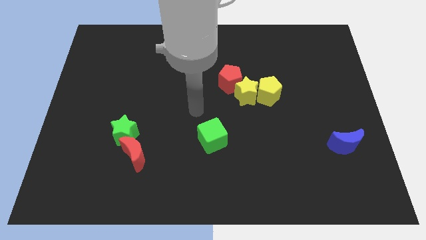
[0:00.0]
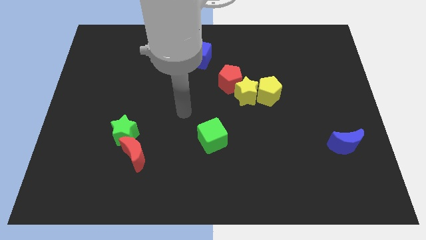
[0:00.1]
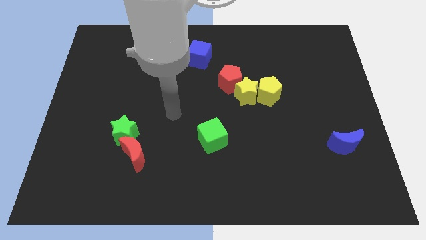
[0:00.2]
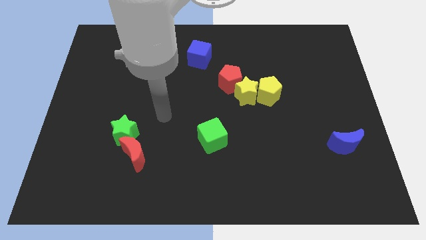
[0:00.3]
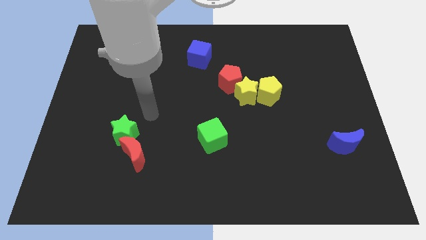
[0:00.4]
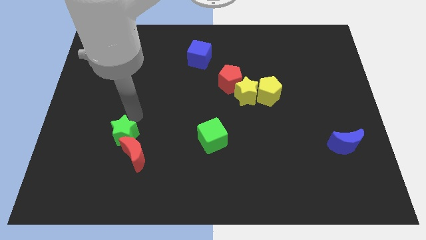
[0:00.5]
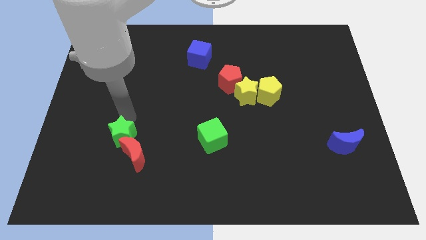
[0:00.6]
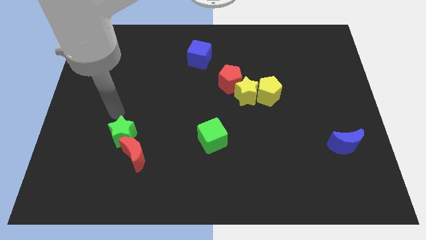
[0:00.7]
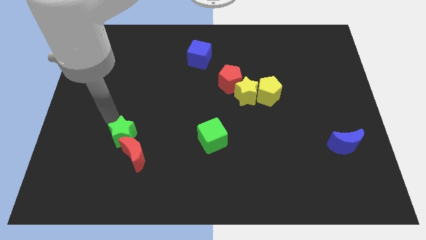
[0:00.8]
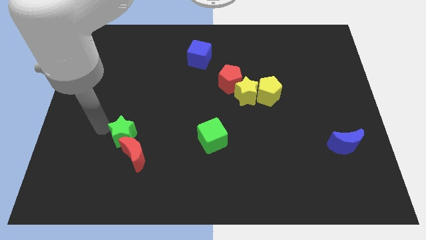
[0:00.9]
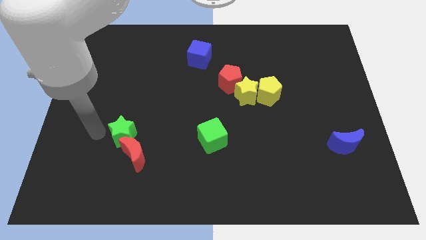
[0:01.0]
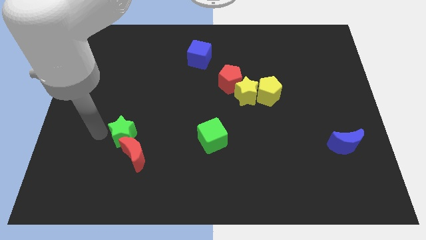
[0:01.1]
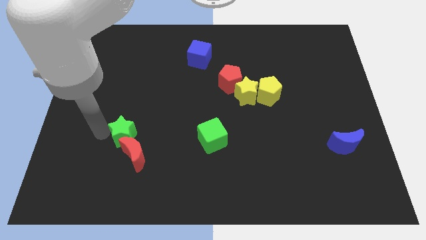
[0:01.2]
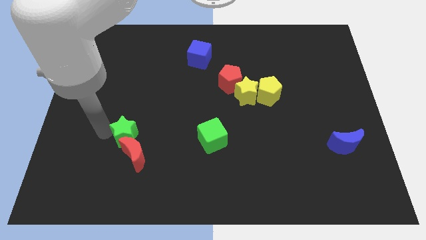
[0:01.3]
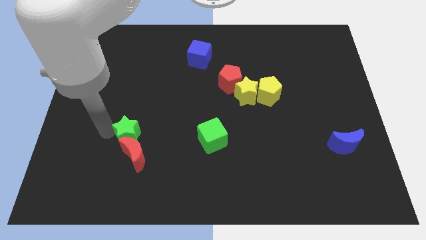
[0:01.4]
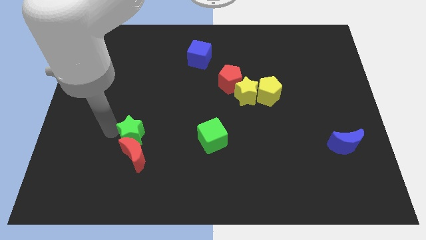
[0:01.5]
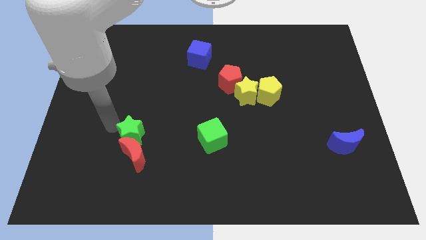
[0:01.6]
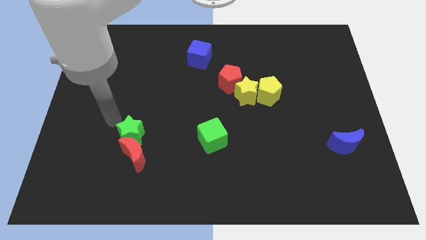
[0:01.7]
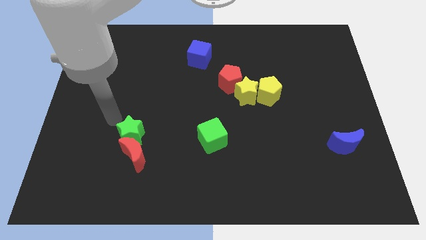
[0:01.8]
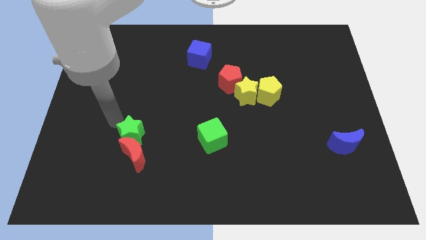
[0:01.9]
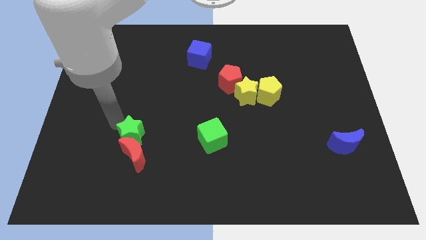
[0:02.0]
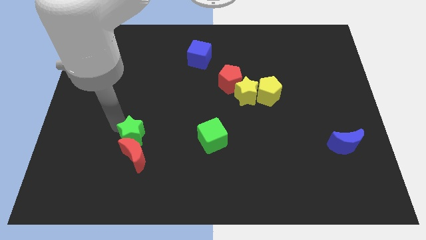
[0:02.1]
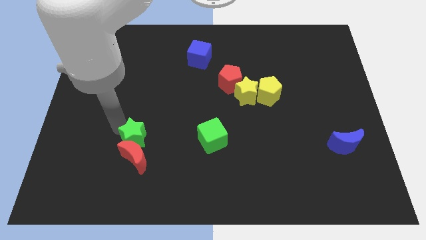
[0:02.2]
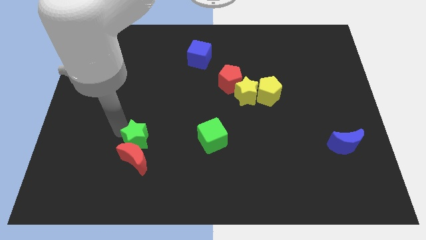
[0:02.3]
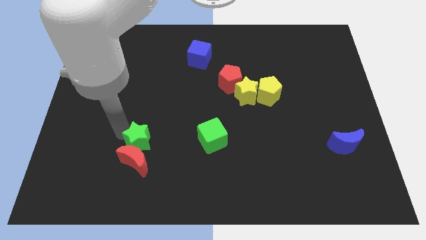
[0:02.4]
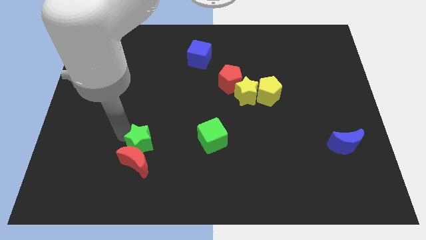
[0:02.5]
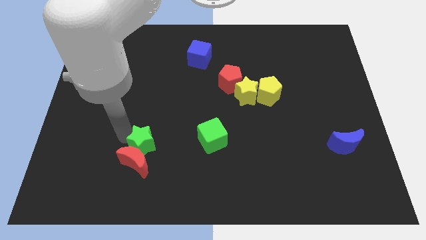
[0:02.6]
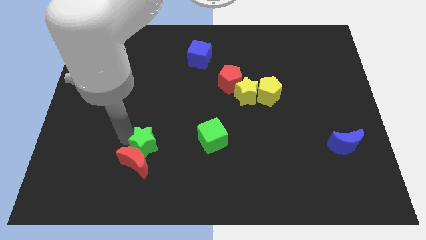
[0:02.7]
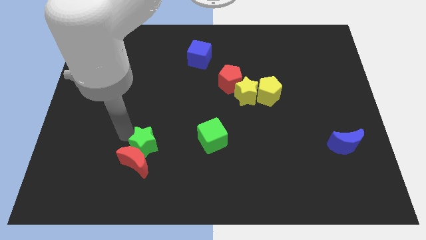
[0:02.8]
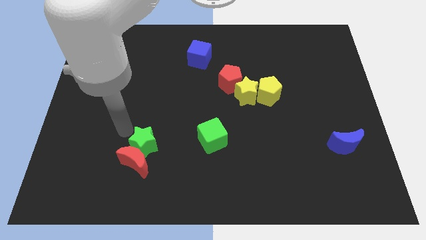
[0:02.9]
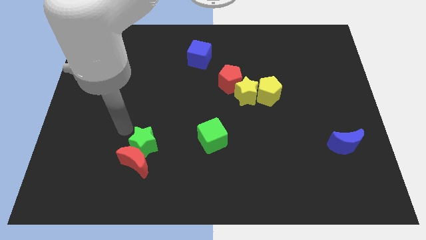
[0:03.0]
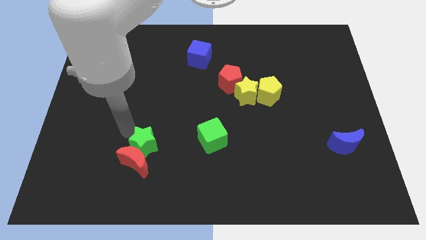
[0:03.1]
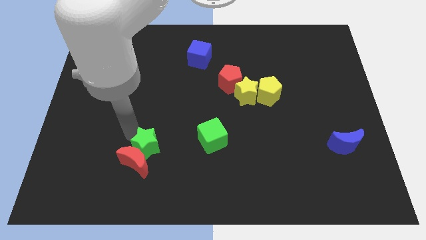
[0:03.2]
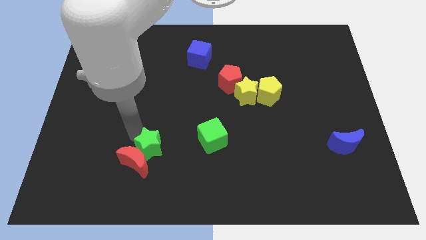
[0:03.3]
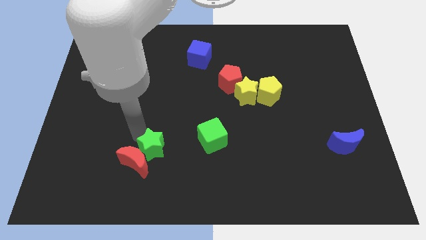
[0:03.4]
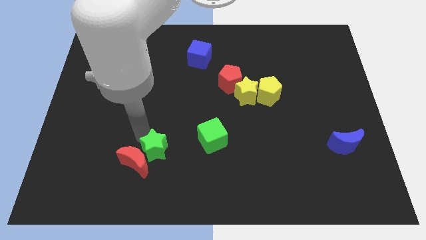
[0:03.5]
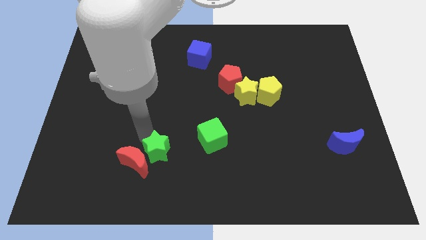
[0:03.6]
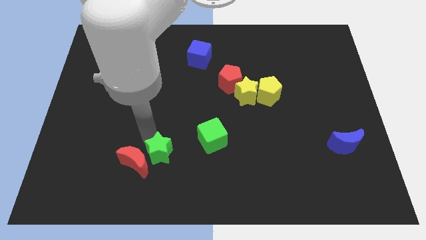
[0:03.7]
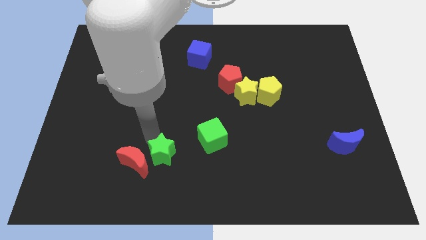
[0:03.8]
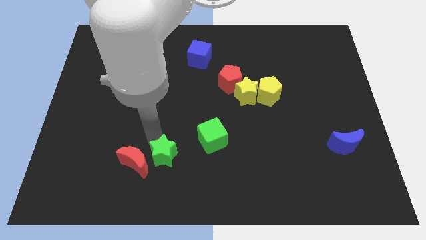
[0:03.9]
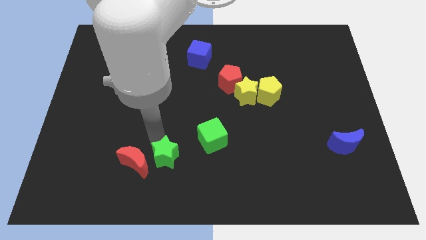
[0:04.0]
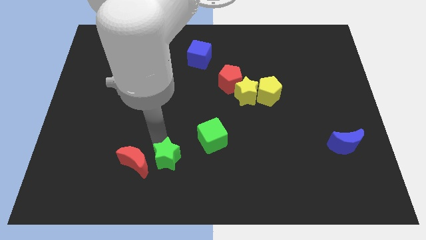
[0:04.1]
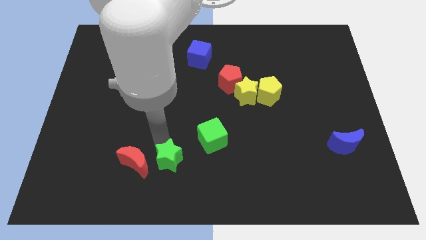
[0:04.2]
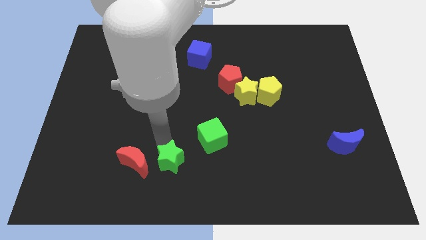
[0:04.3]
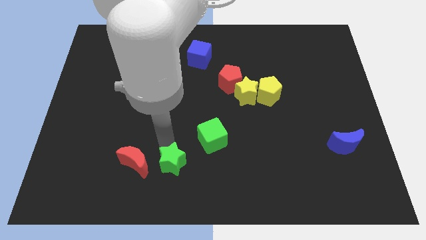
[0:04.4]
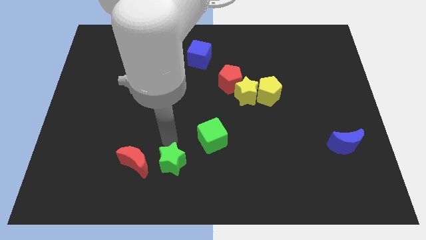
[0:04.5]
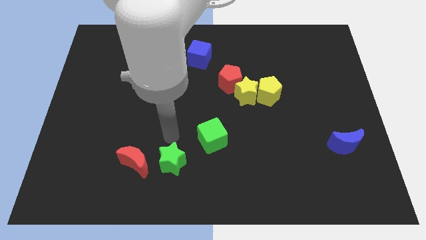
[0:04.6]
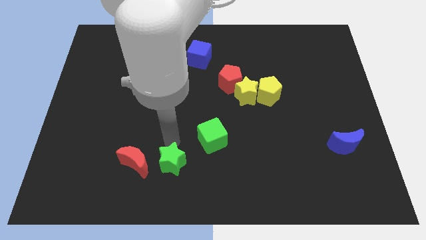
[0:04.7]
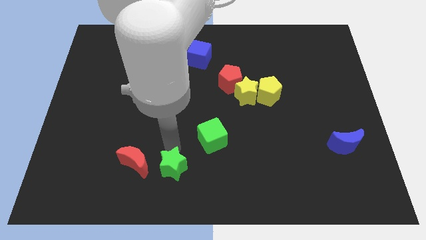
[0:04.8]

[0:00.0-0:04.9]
slide the green star to the bottom side

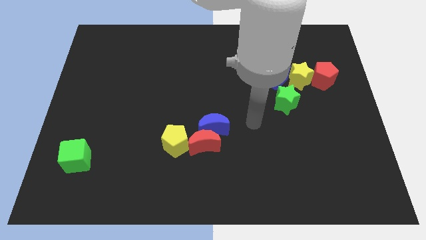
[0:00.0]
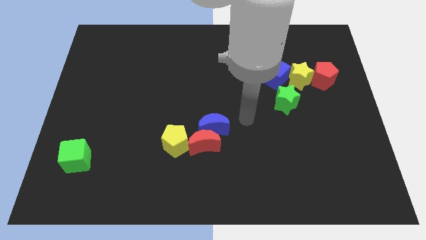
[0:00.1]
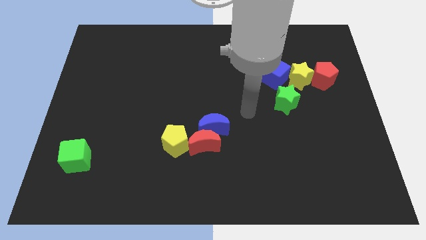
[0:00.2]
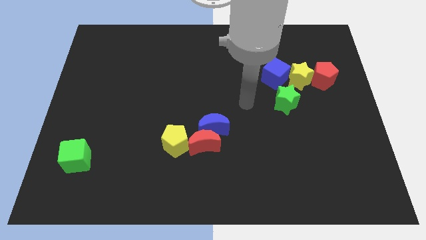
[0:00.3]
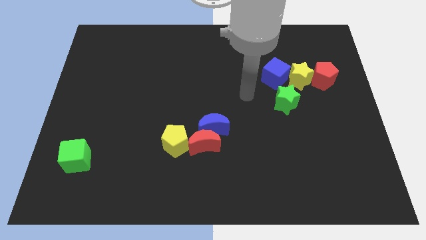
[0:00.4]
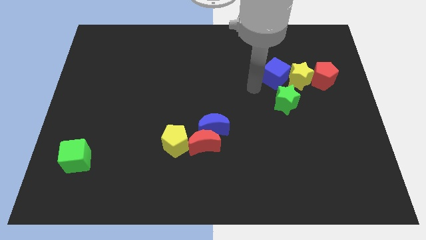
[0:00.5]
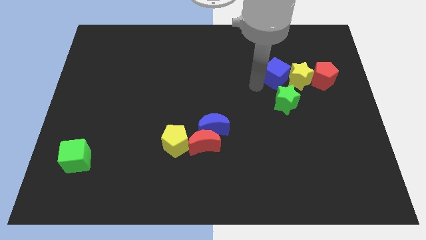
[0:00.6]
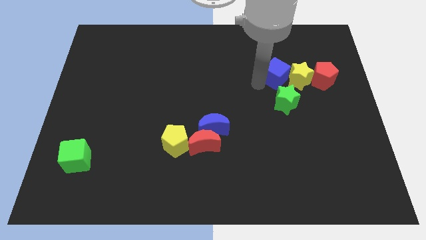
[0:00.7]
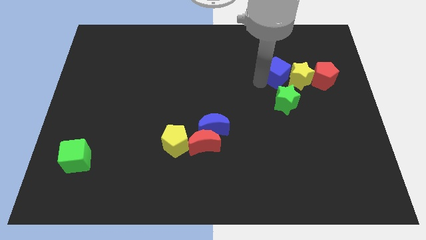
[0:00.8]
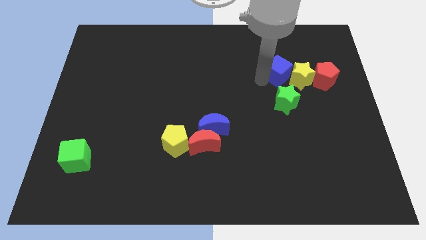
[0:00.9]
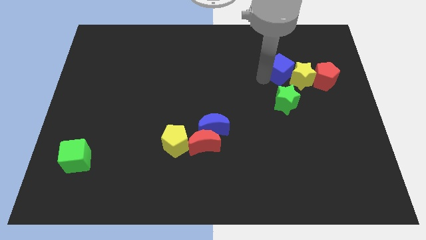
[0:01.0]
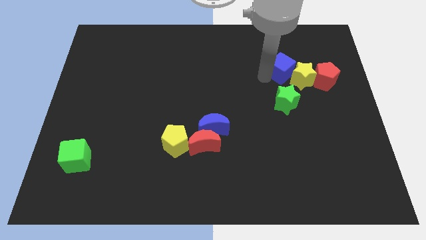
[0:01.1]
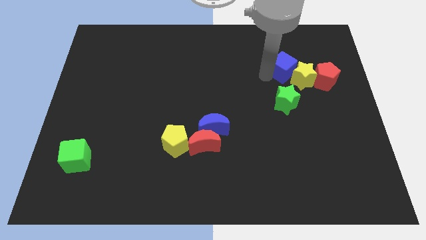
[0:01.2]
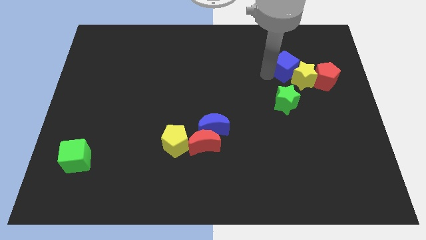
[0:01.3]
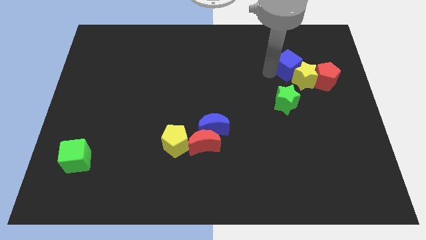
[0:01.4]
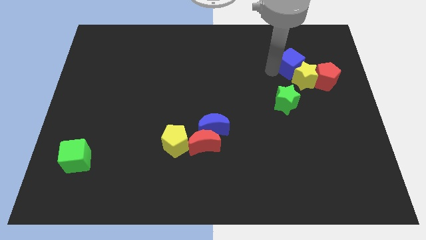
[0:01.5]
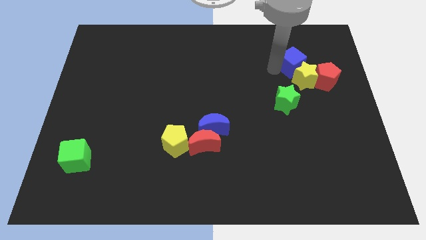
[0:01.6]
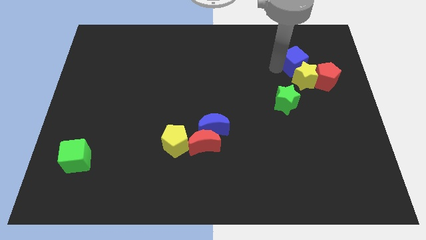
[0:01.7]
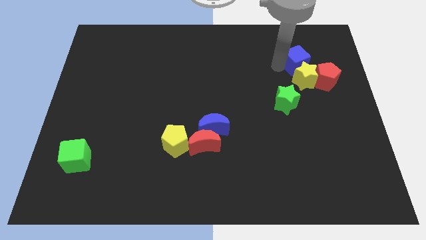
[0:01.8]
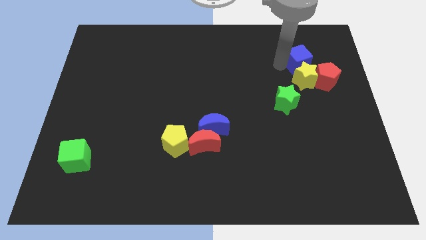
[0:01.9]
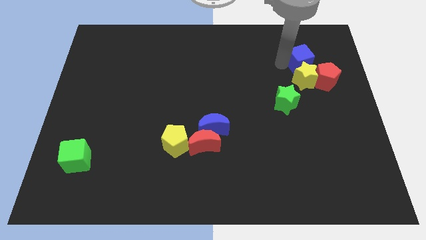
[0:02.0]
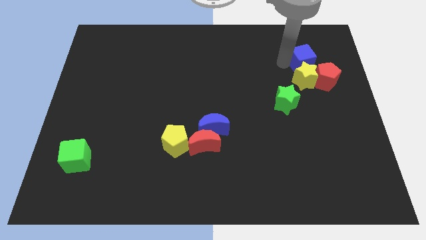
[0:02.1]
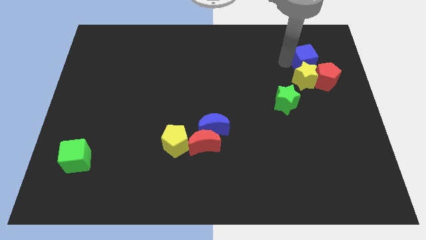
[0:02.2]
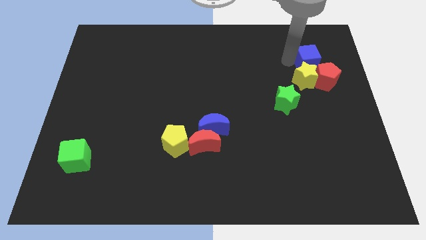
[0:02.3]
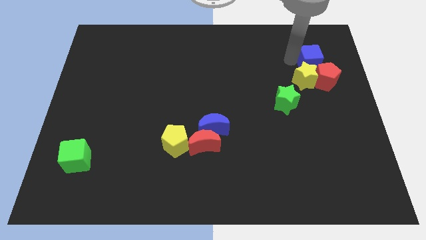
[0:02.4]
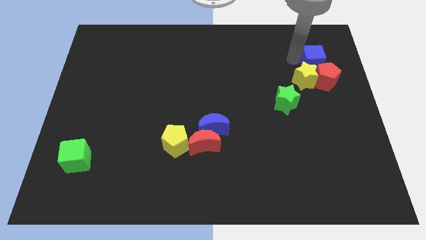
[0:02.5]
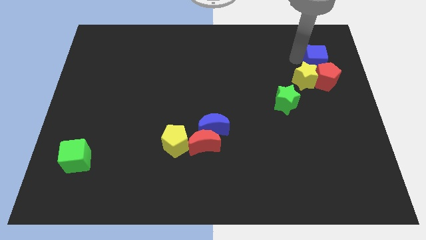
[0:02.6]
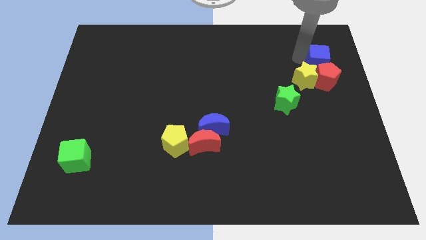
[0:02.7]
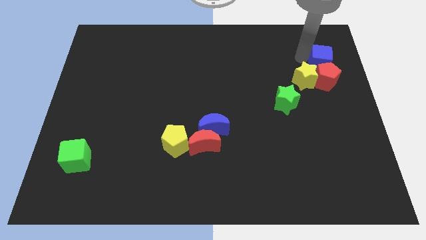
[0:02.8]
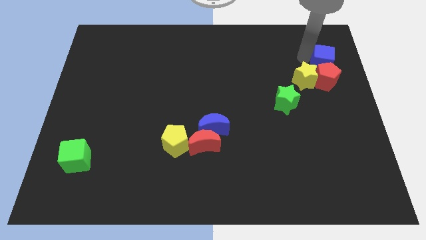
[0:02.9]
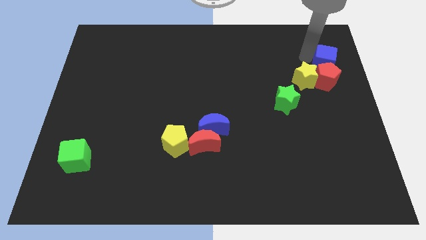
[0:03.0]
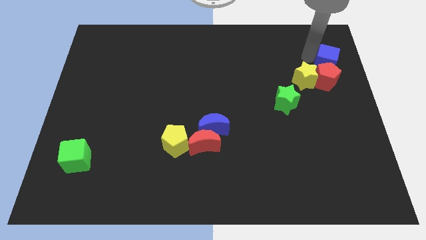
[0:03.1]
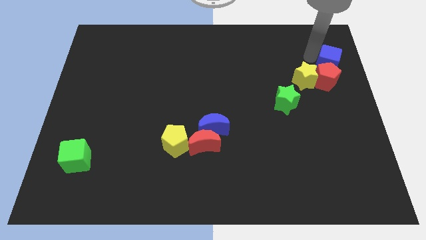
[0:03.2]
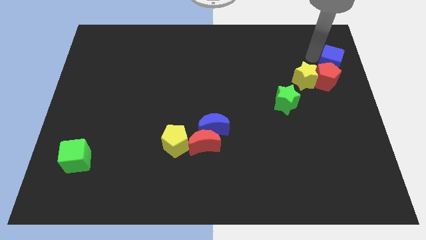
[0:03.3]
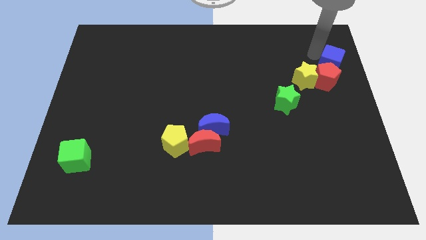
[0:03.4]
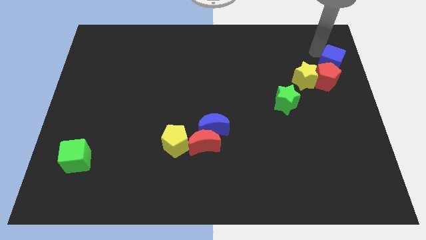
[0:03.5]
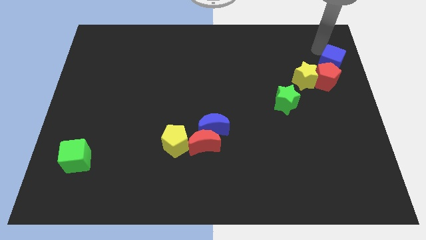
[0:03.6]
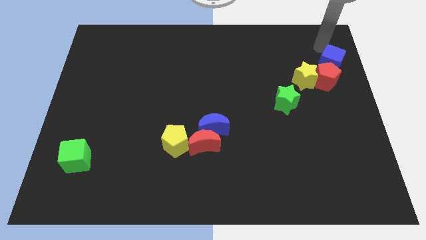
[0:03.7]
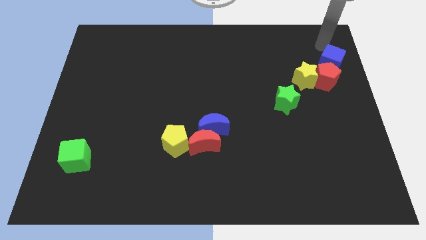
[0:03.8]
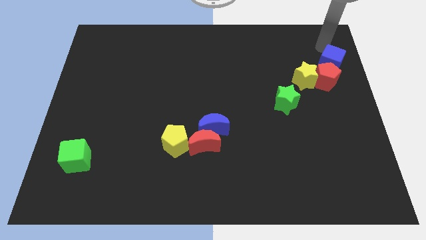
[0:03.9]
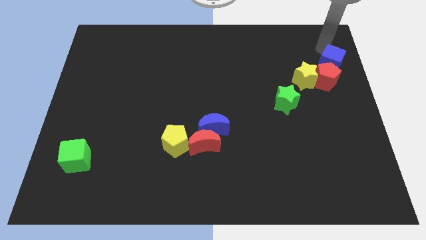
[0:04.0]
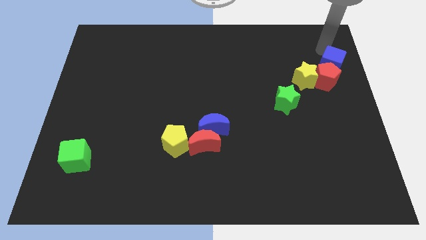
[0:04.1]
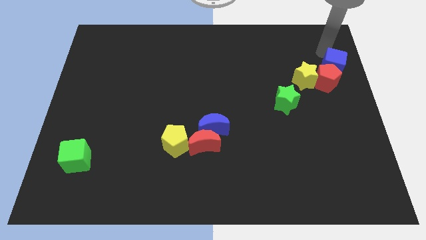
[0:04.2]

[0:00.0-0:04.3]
put the blue cube to the center right
